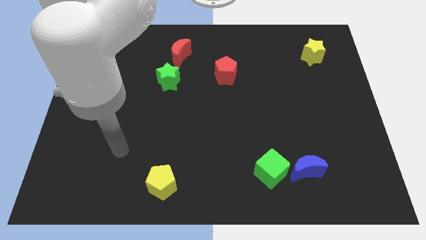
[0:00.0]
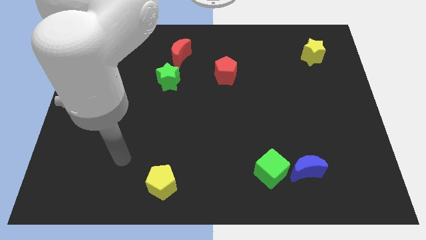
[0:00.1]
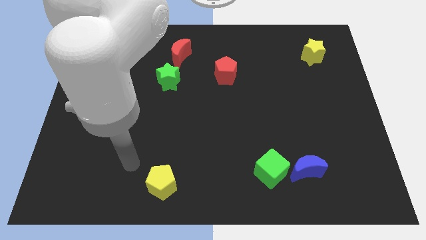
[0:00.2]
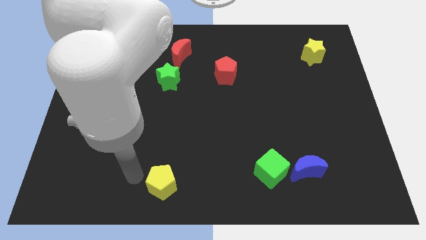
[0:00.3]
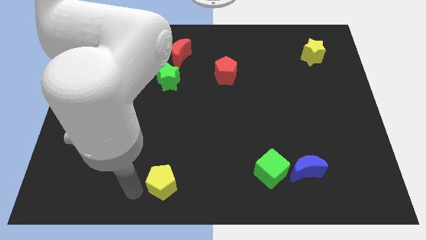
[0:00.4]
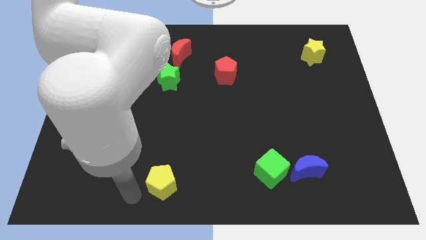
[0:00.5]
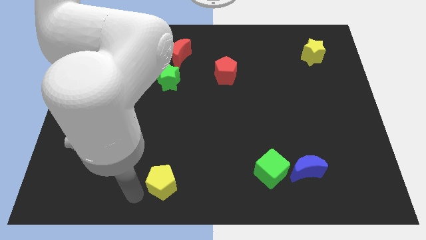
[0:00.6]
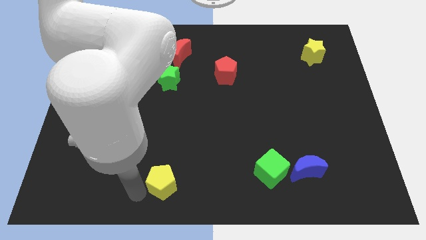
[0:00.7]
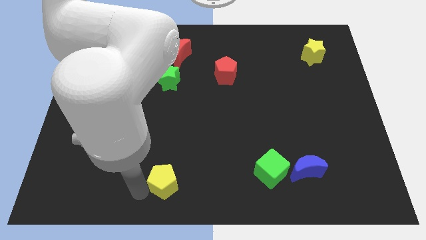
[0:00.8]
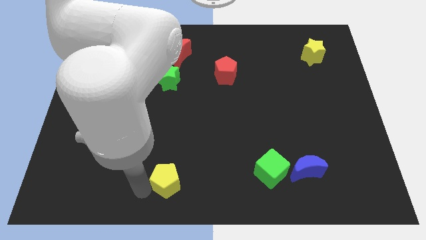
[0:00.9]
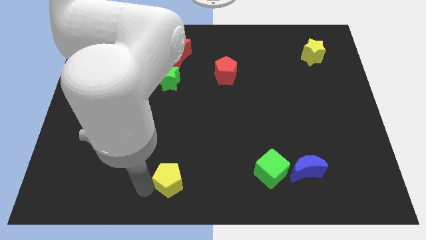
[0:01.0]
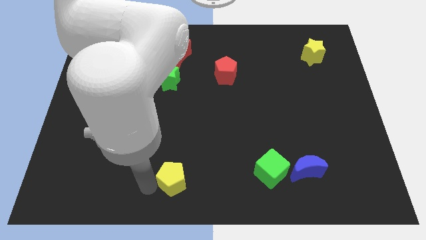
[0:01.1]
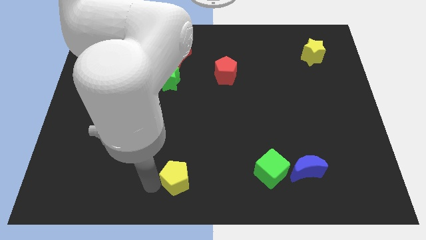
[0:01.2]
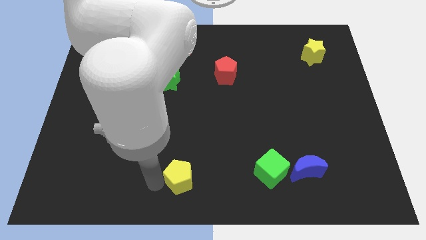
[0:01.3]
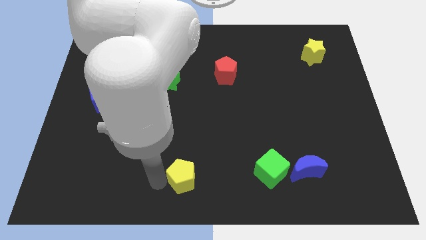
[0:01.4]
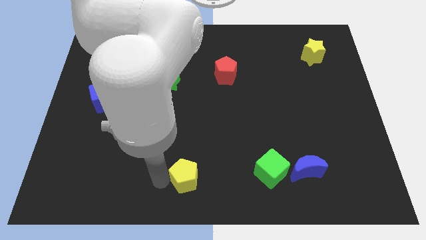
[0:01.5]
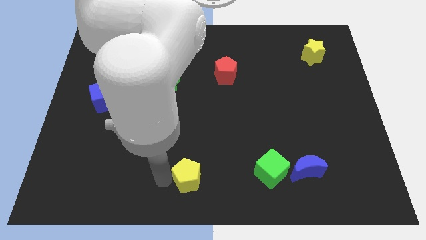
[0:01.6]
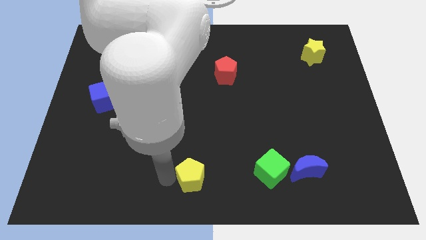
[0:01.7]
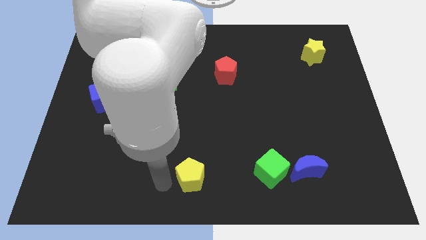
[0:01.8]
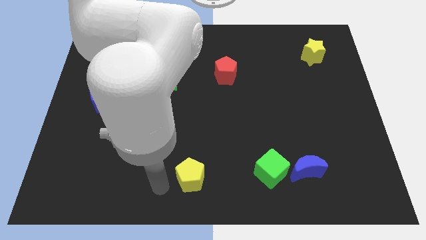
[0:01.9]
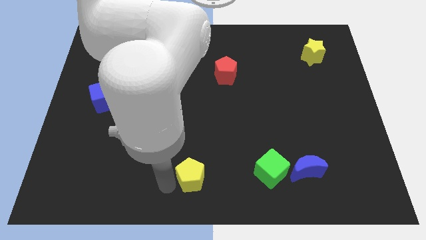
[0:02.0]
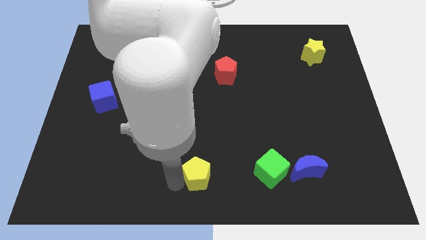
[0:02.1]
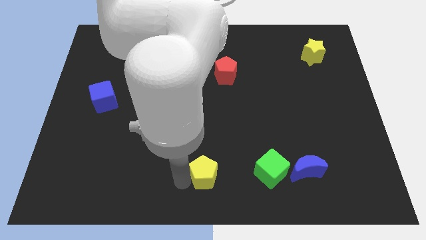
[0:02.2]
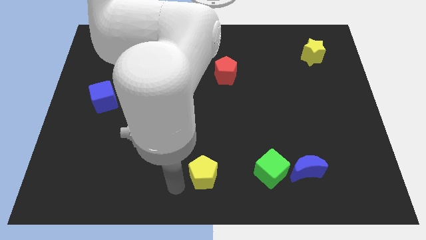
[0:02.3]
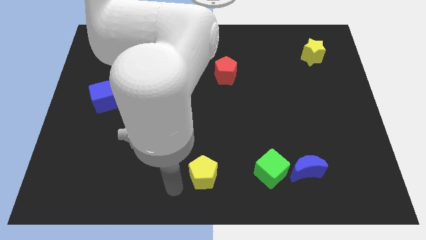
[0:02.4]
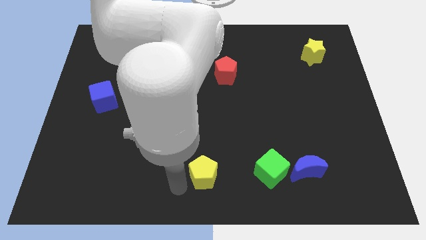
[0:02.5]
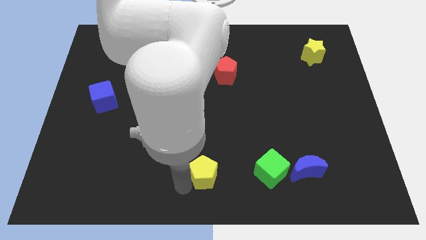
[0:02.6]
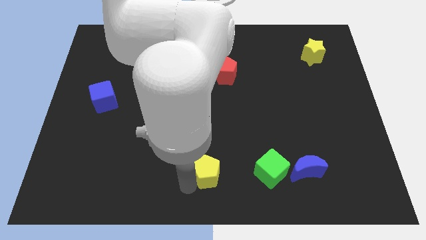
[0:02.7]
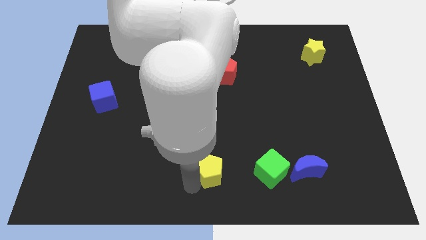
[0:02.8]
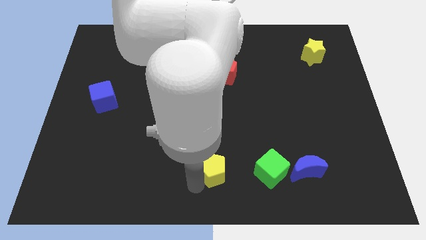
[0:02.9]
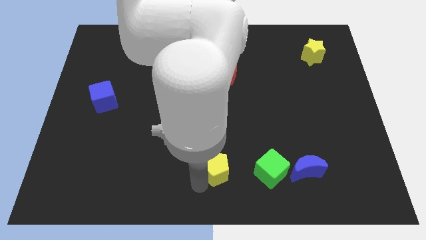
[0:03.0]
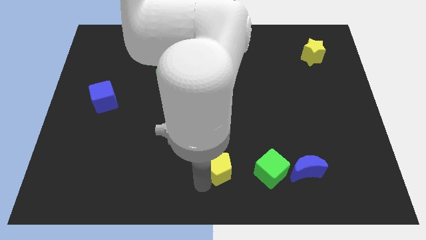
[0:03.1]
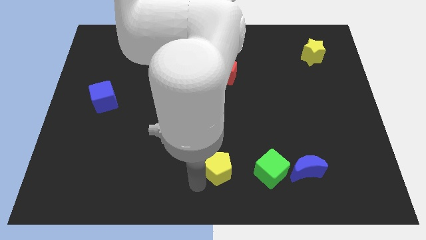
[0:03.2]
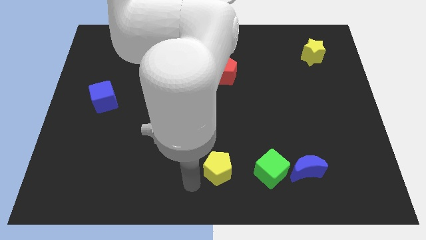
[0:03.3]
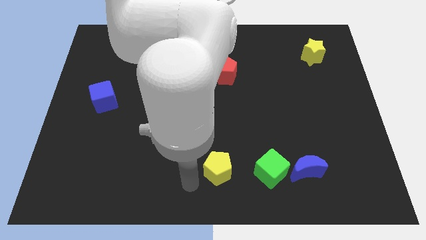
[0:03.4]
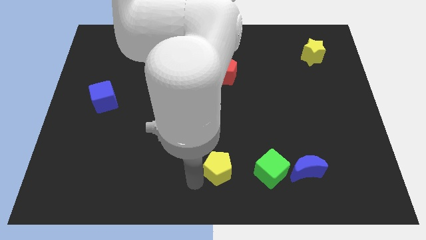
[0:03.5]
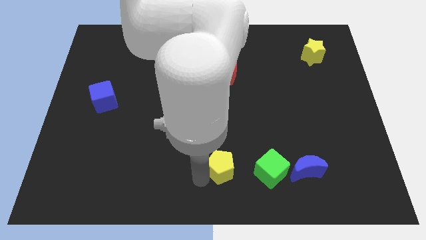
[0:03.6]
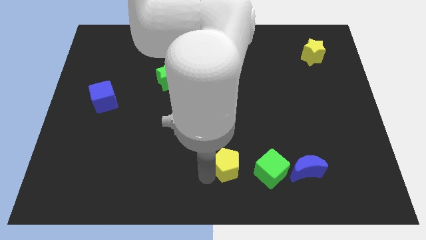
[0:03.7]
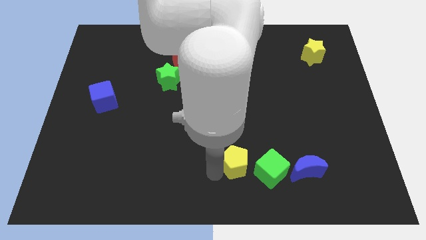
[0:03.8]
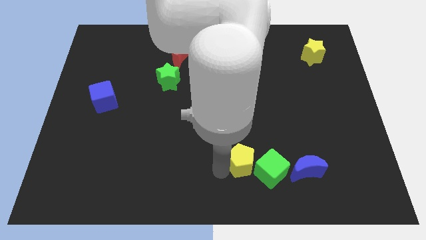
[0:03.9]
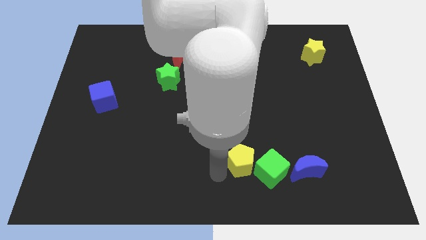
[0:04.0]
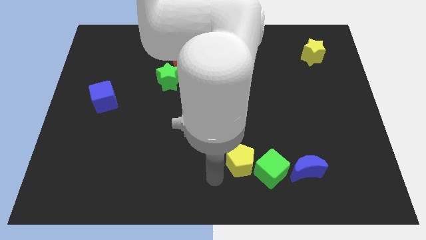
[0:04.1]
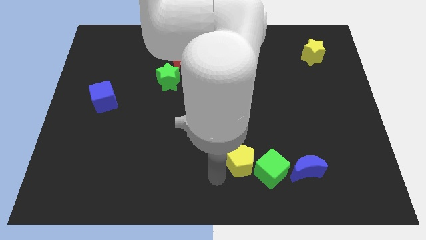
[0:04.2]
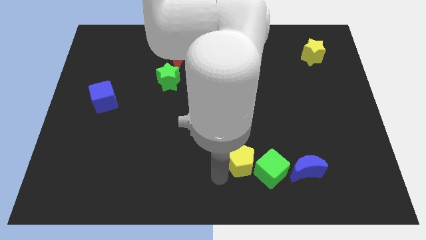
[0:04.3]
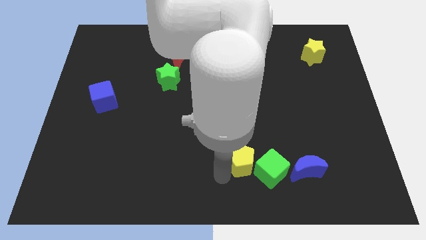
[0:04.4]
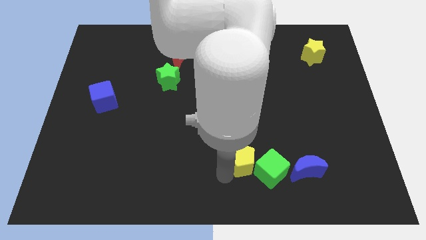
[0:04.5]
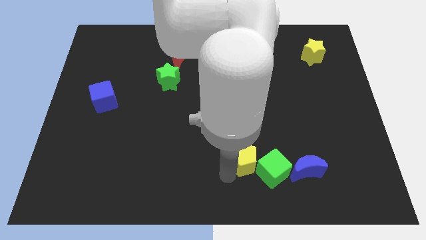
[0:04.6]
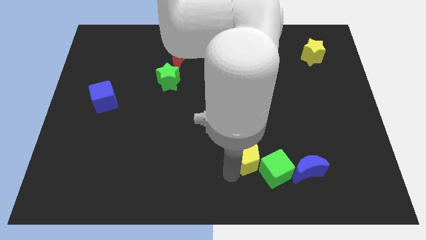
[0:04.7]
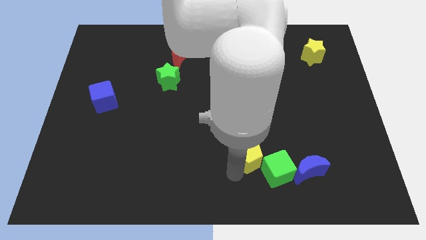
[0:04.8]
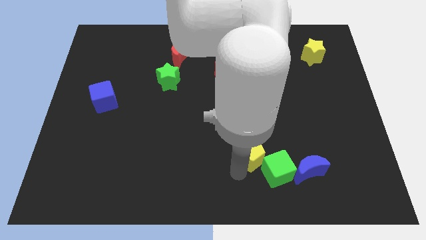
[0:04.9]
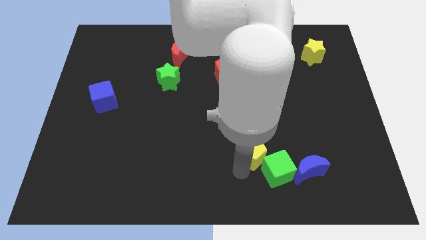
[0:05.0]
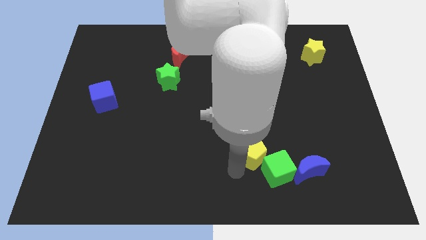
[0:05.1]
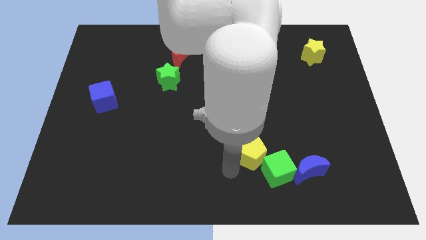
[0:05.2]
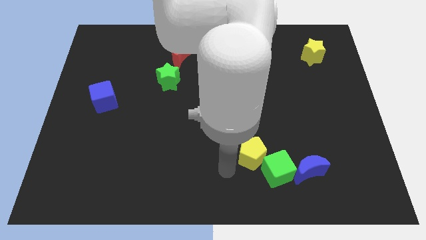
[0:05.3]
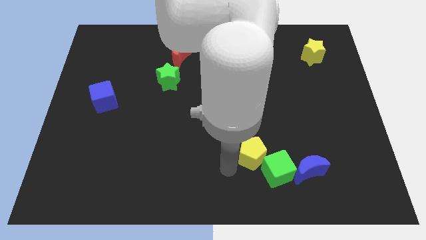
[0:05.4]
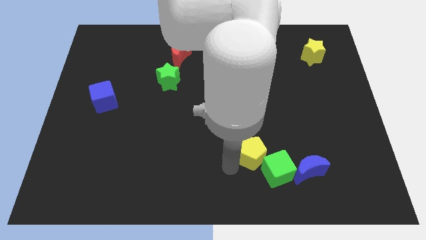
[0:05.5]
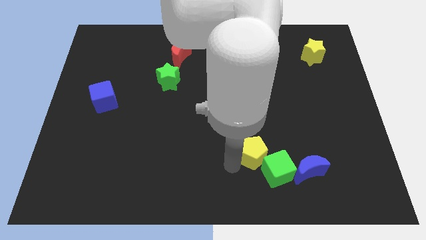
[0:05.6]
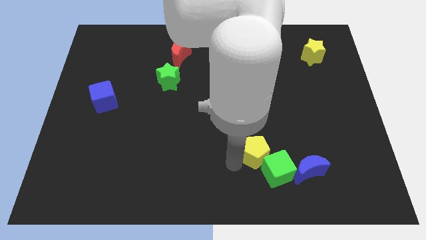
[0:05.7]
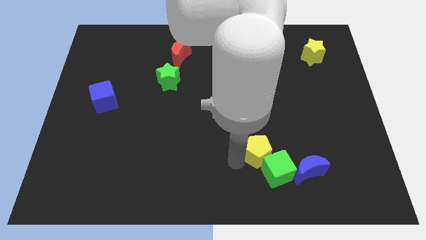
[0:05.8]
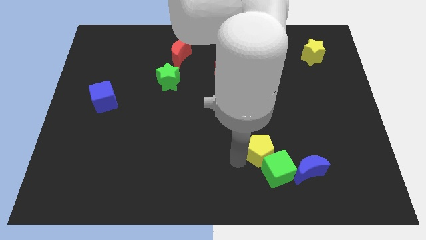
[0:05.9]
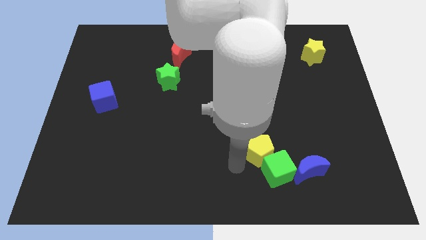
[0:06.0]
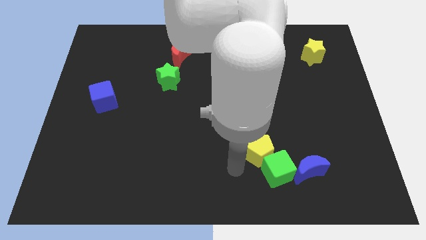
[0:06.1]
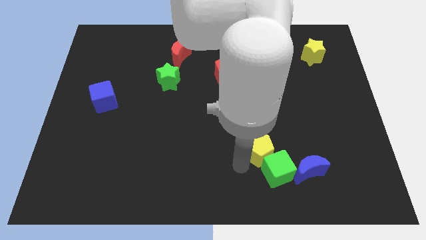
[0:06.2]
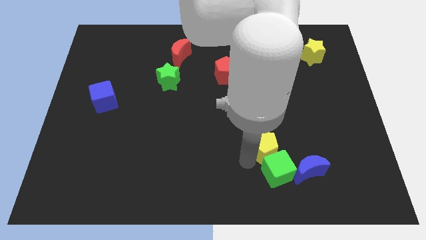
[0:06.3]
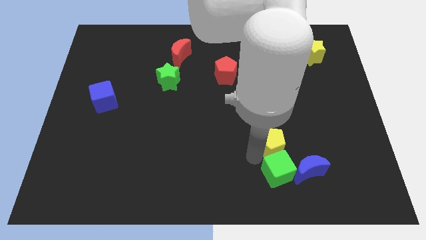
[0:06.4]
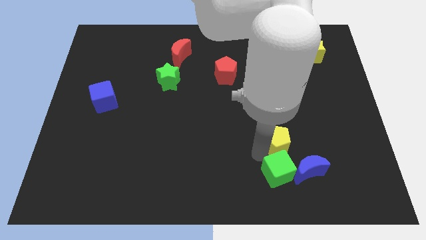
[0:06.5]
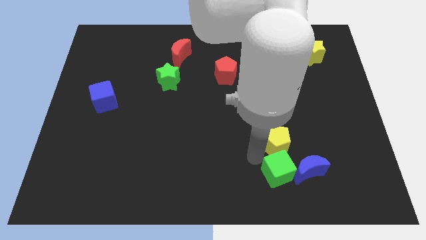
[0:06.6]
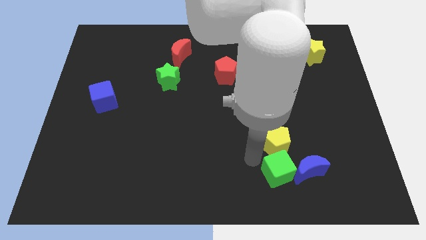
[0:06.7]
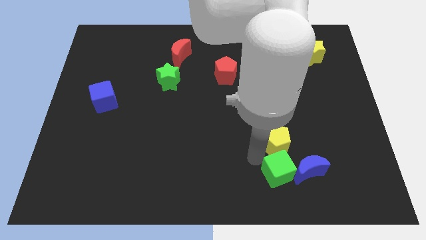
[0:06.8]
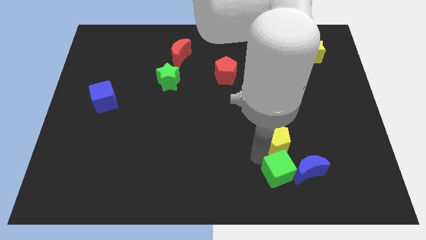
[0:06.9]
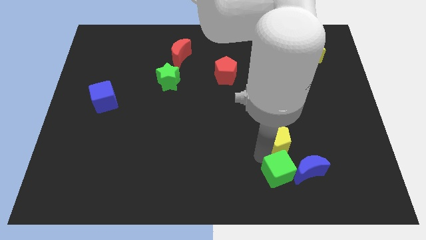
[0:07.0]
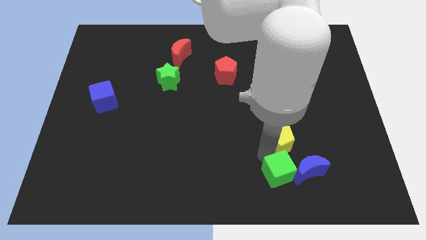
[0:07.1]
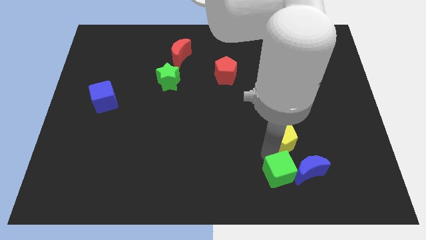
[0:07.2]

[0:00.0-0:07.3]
slide the yellow pentagon to the top side of the blue moon
